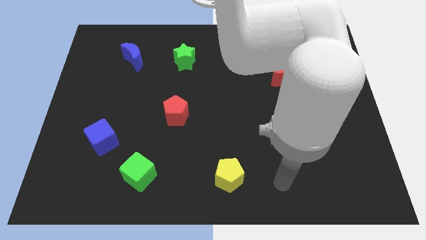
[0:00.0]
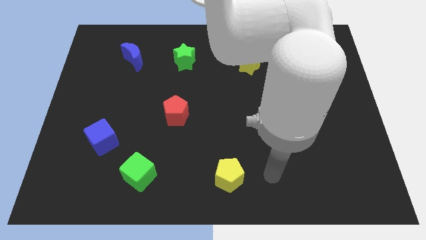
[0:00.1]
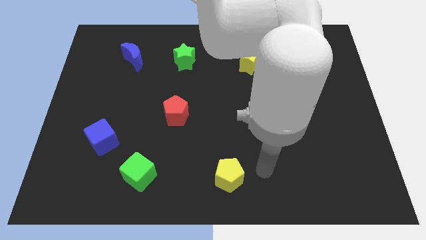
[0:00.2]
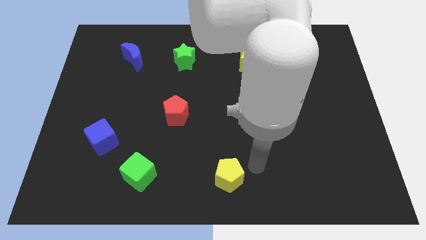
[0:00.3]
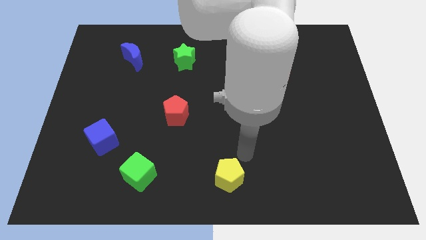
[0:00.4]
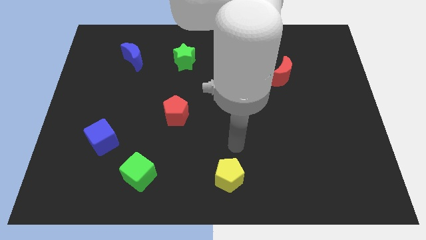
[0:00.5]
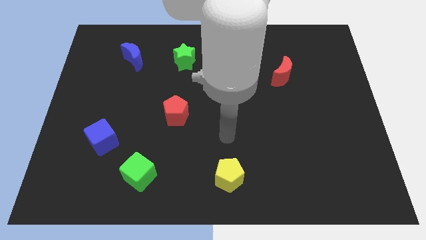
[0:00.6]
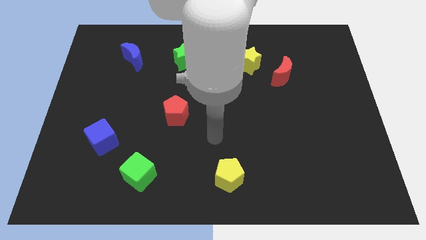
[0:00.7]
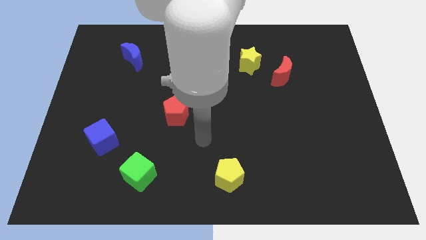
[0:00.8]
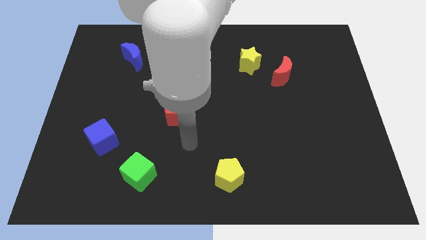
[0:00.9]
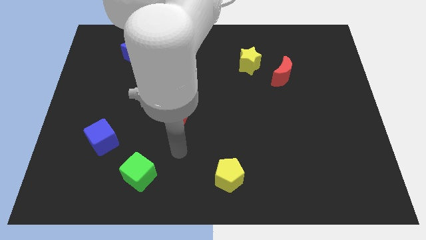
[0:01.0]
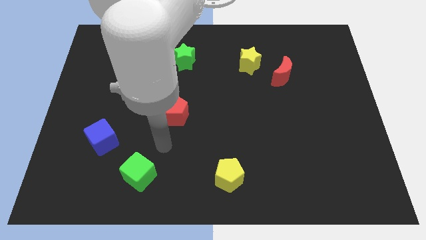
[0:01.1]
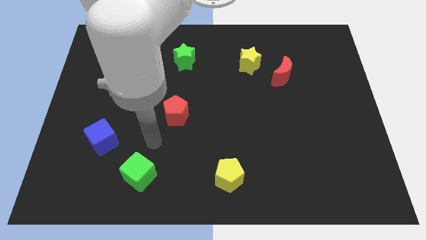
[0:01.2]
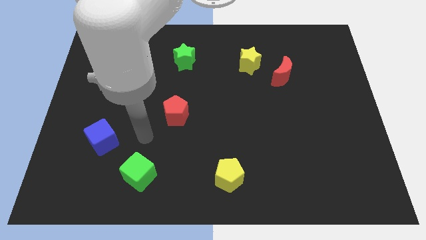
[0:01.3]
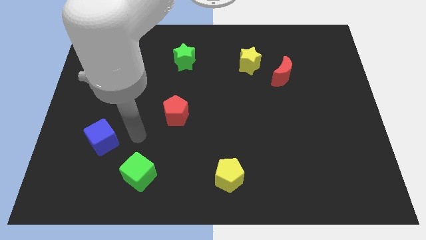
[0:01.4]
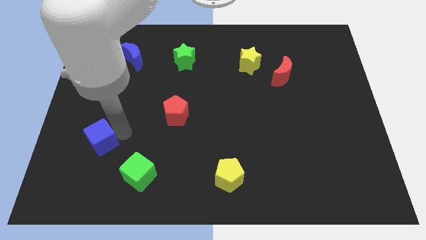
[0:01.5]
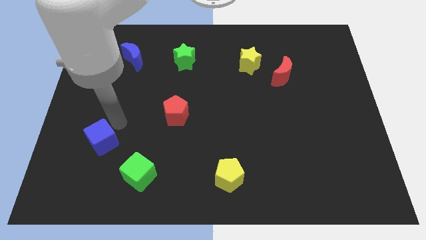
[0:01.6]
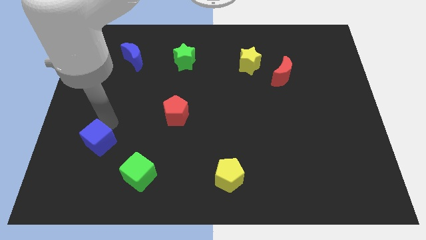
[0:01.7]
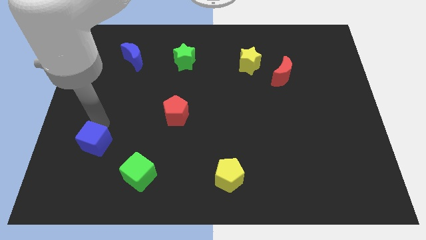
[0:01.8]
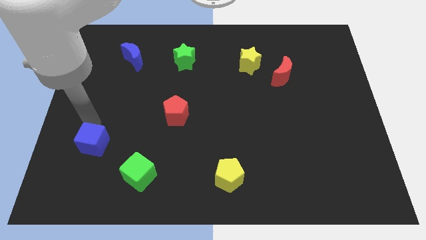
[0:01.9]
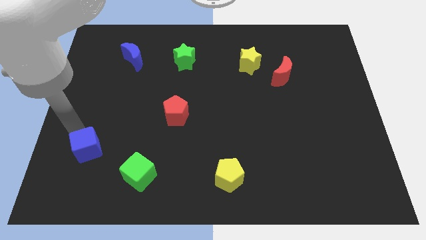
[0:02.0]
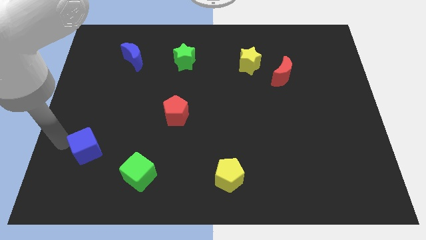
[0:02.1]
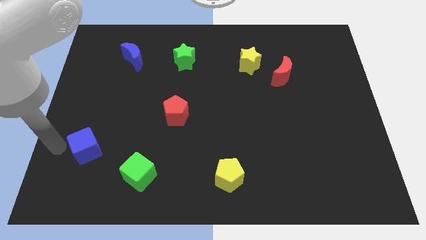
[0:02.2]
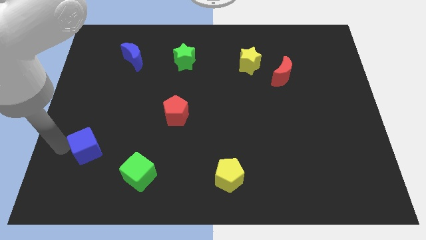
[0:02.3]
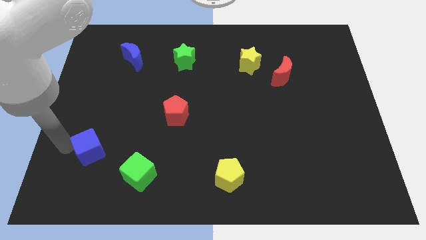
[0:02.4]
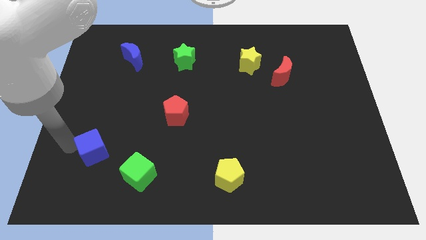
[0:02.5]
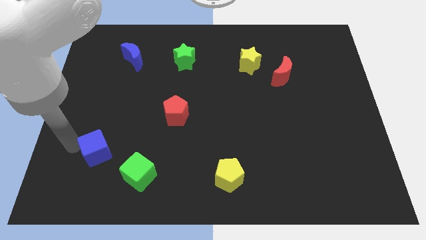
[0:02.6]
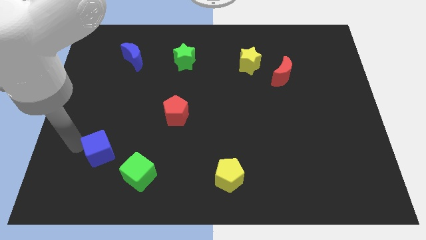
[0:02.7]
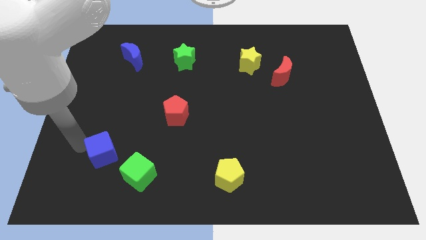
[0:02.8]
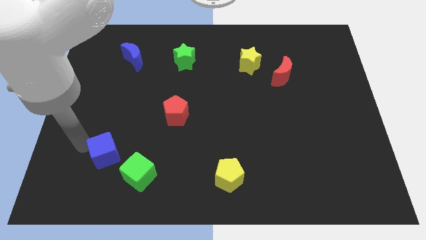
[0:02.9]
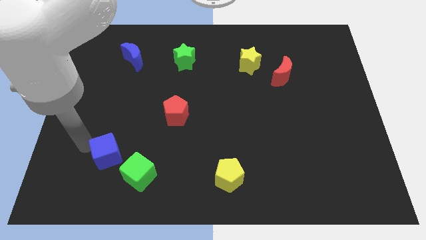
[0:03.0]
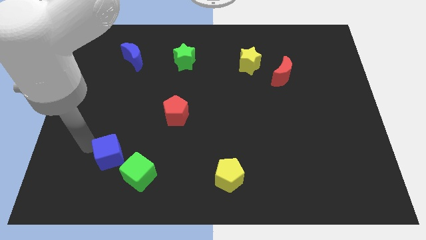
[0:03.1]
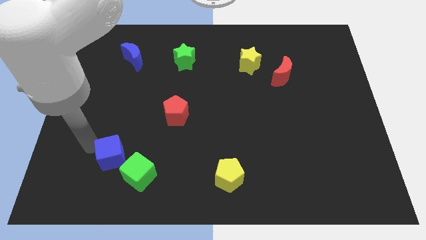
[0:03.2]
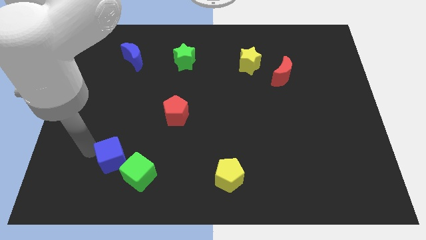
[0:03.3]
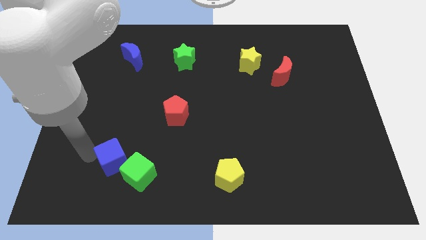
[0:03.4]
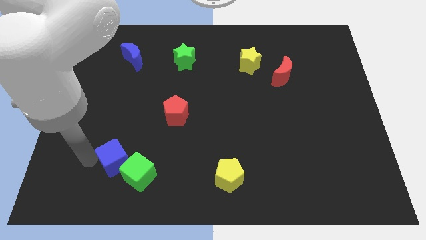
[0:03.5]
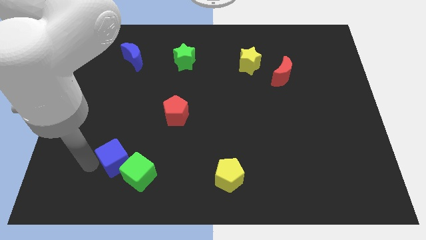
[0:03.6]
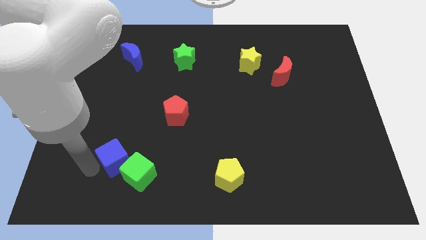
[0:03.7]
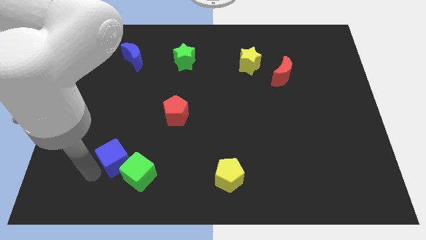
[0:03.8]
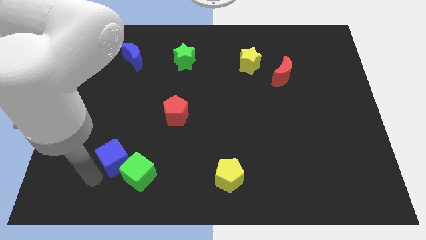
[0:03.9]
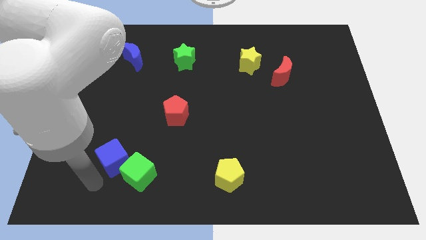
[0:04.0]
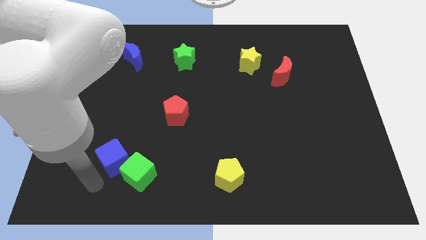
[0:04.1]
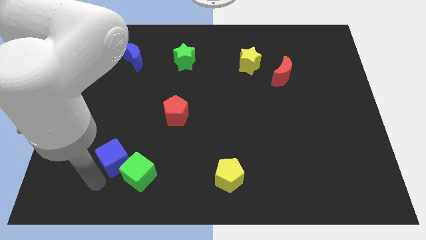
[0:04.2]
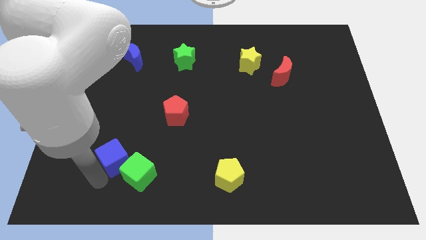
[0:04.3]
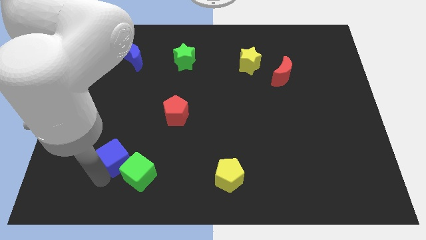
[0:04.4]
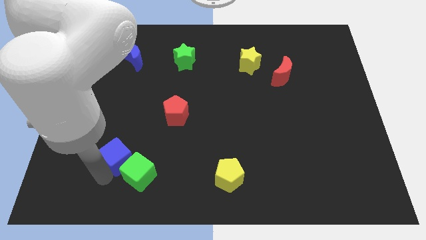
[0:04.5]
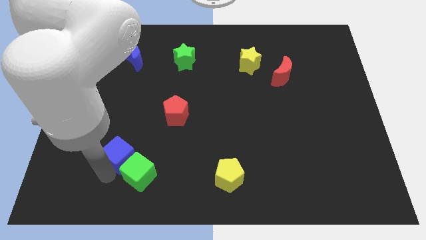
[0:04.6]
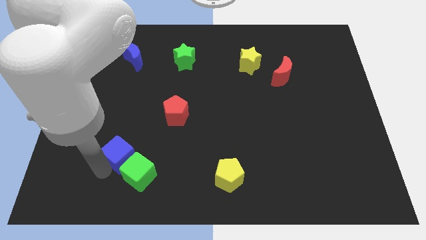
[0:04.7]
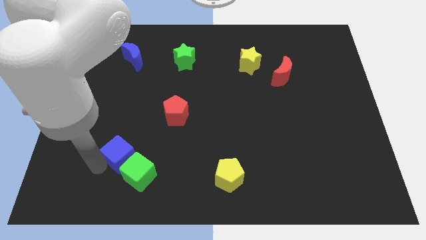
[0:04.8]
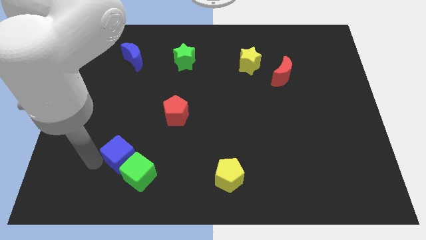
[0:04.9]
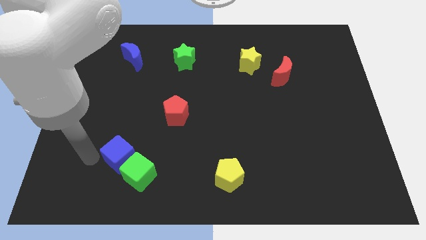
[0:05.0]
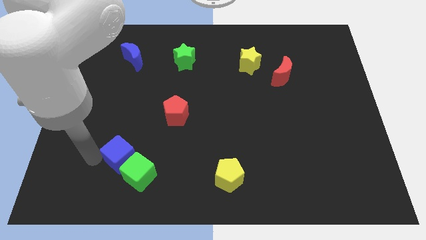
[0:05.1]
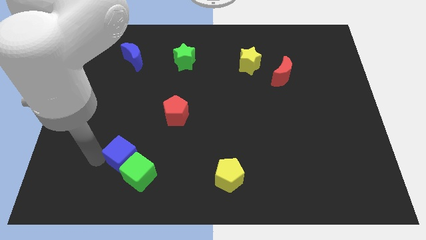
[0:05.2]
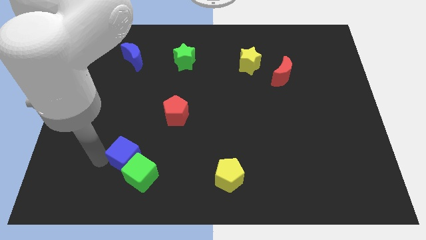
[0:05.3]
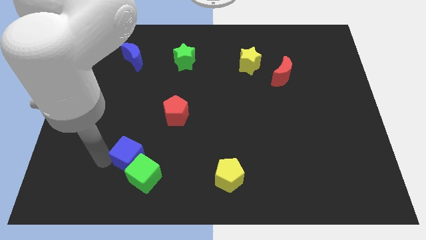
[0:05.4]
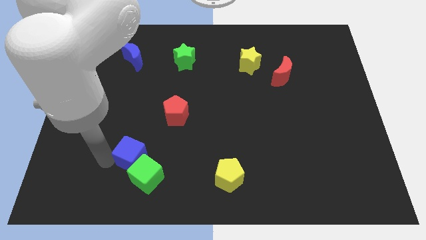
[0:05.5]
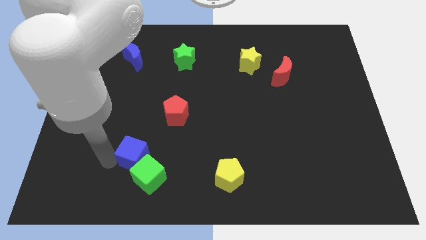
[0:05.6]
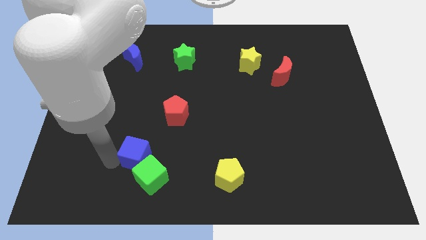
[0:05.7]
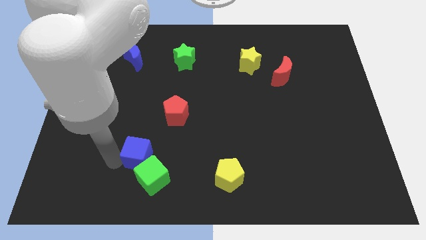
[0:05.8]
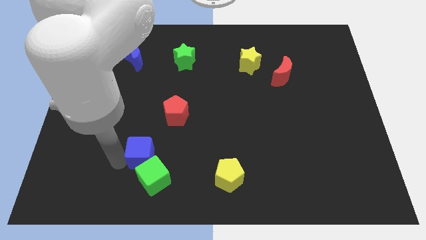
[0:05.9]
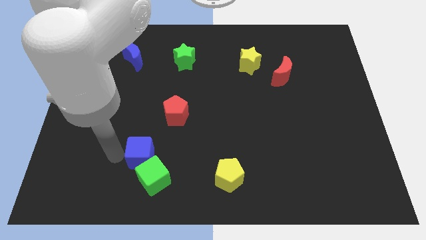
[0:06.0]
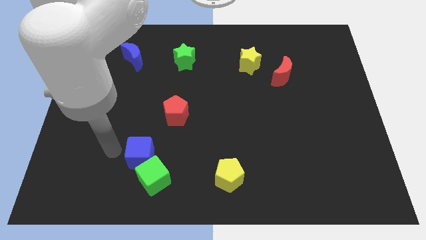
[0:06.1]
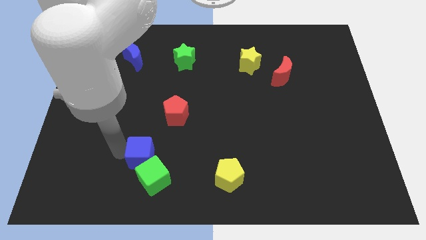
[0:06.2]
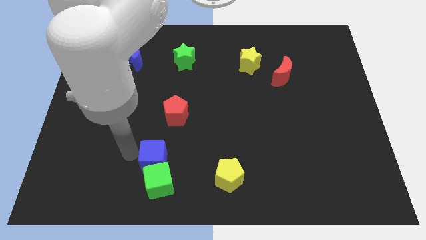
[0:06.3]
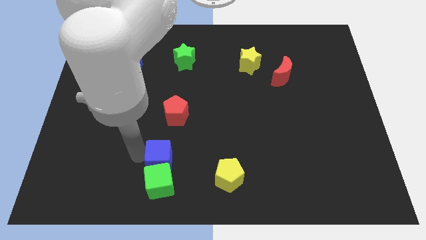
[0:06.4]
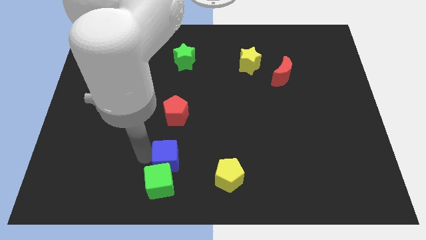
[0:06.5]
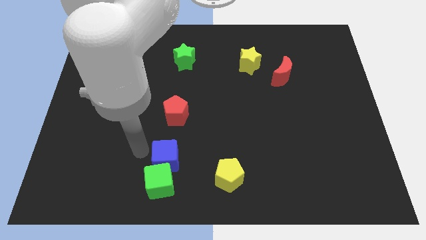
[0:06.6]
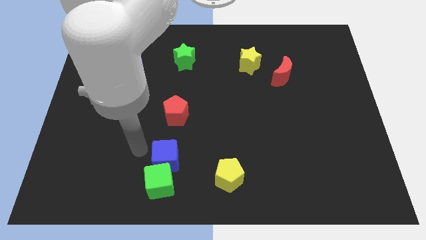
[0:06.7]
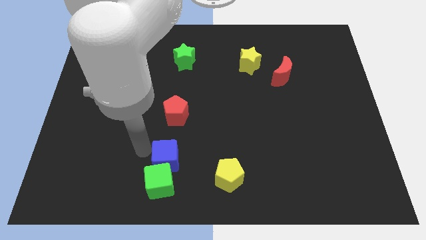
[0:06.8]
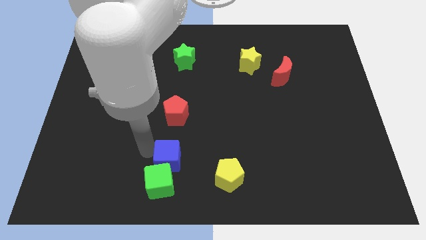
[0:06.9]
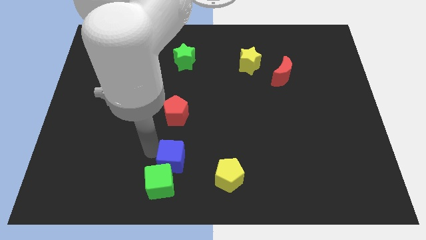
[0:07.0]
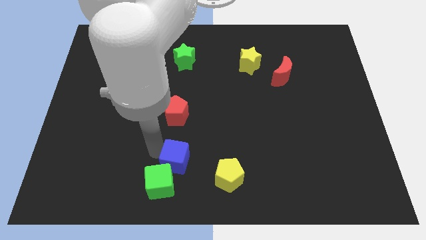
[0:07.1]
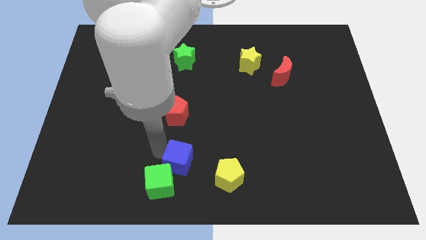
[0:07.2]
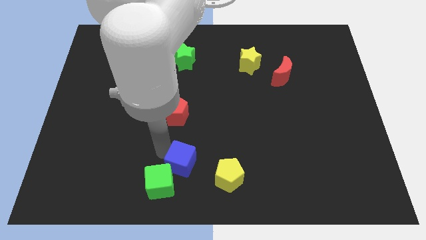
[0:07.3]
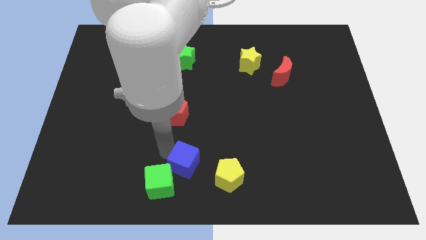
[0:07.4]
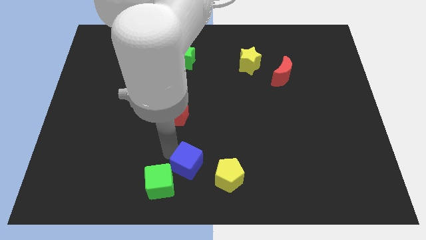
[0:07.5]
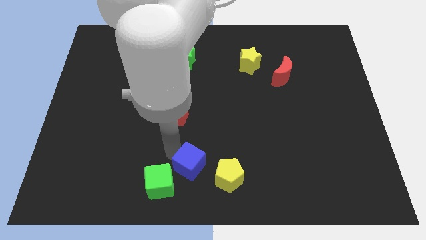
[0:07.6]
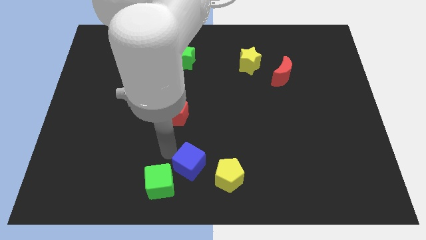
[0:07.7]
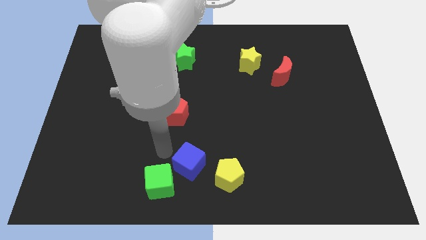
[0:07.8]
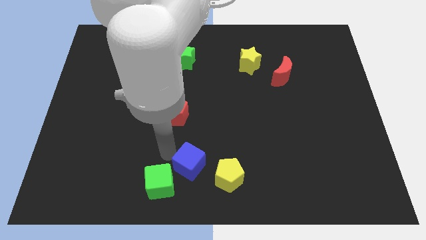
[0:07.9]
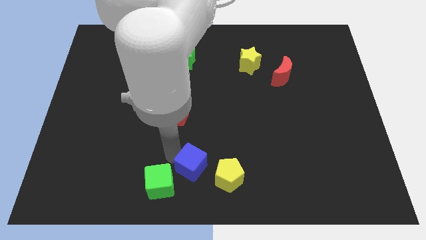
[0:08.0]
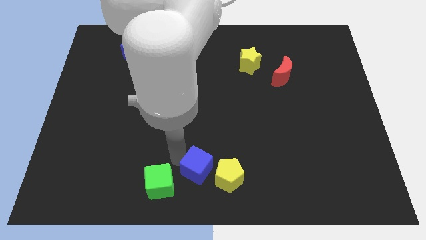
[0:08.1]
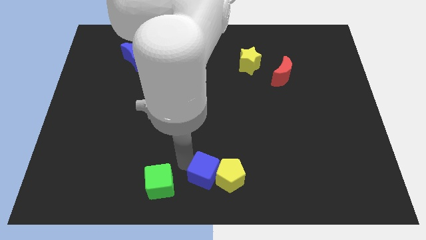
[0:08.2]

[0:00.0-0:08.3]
push the blue cube to the yellow pentagon
